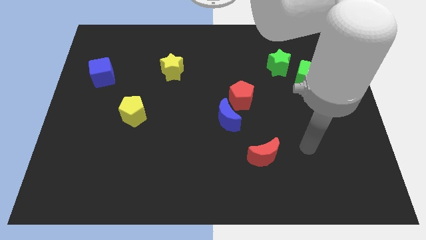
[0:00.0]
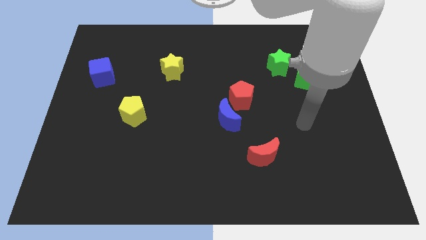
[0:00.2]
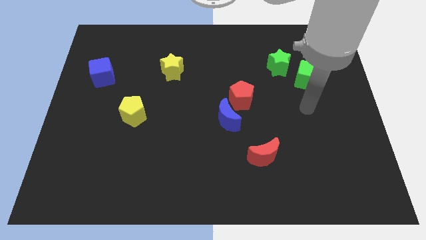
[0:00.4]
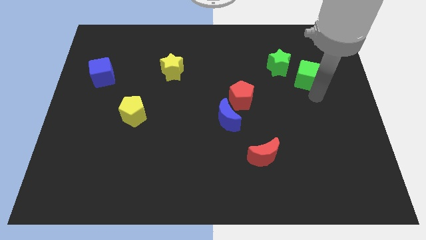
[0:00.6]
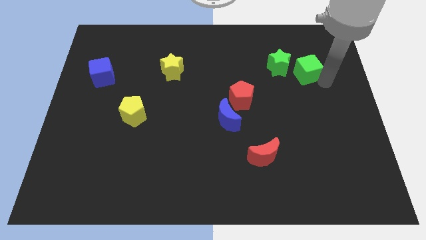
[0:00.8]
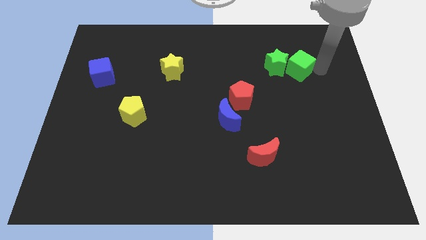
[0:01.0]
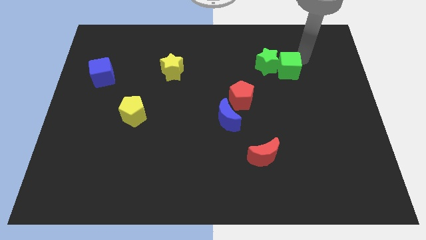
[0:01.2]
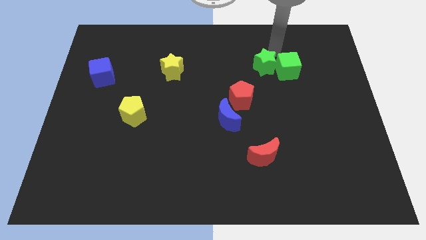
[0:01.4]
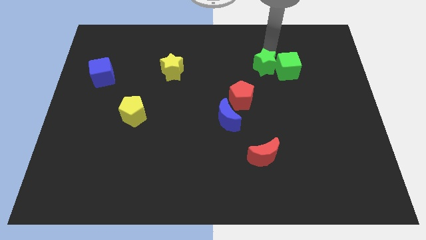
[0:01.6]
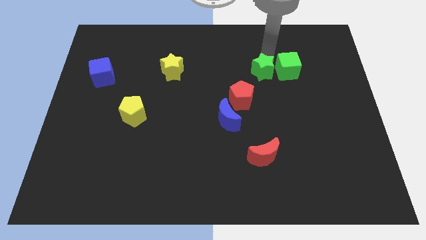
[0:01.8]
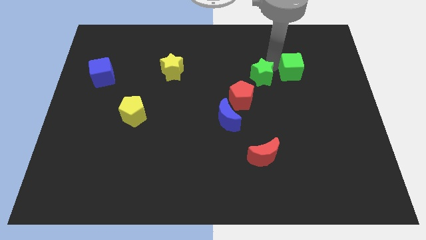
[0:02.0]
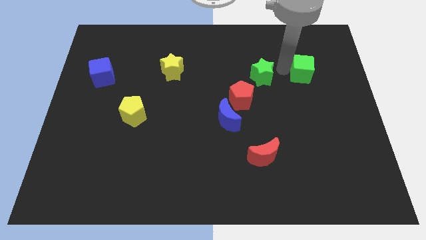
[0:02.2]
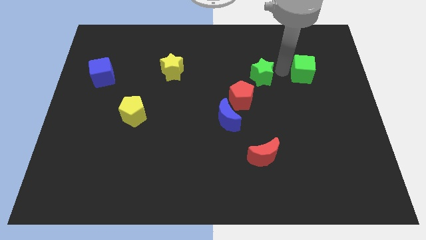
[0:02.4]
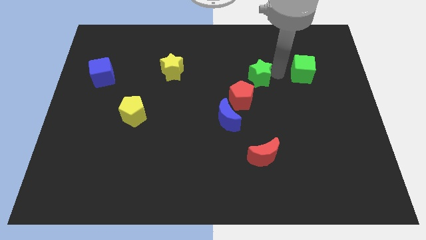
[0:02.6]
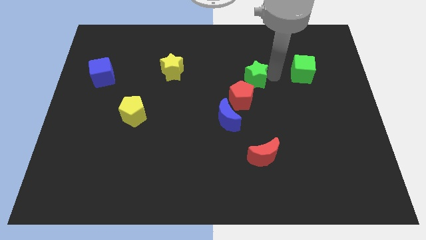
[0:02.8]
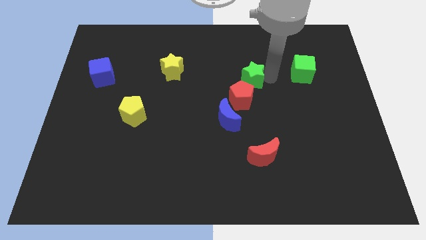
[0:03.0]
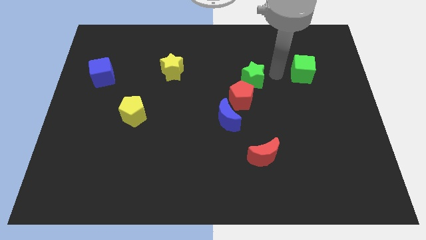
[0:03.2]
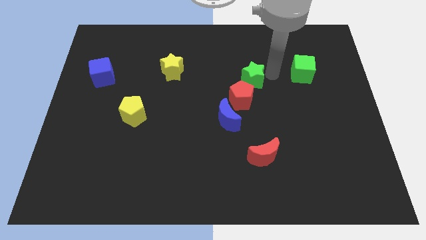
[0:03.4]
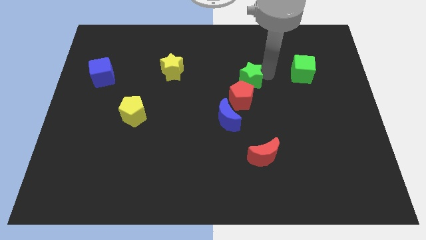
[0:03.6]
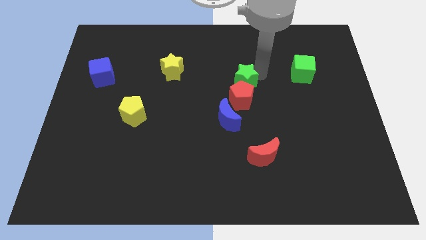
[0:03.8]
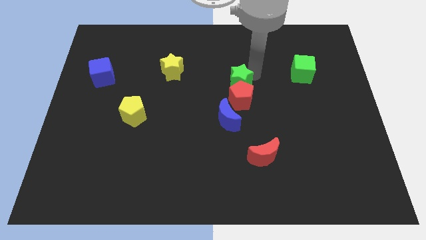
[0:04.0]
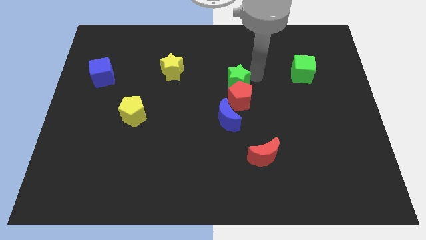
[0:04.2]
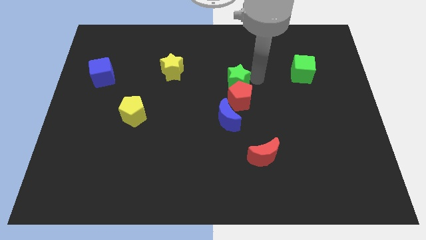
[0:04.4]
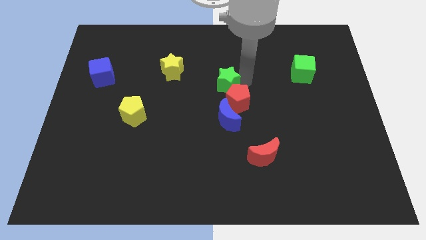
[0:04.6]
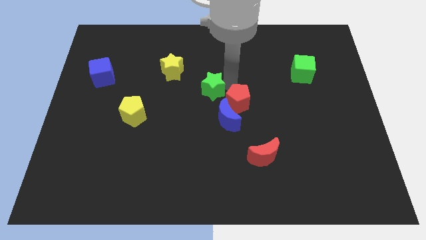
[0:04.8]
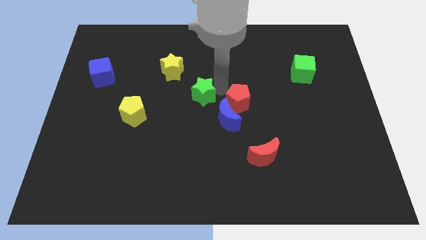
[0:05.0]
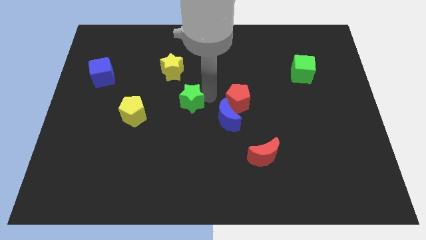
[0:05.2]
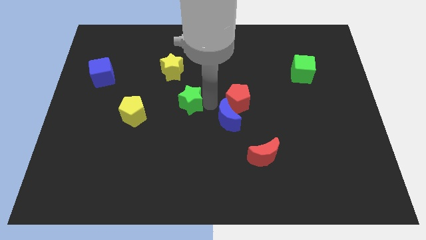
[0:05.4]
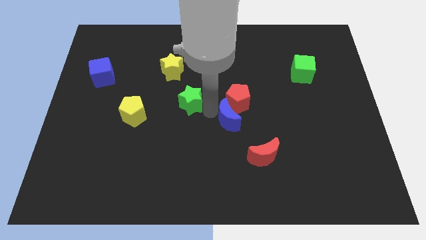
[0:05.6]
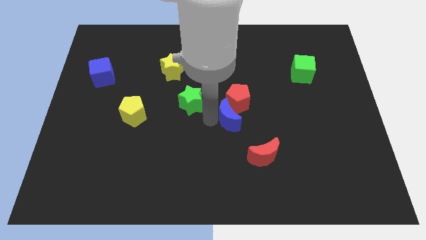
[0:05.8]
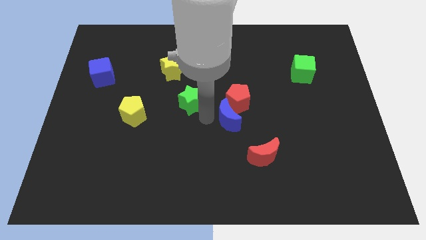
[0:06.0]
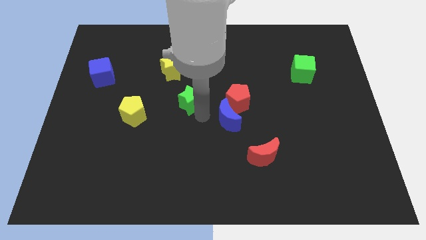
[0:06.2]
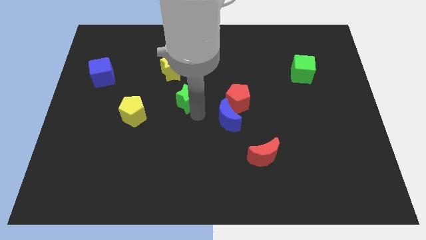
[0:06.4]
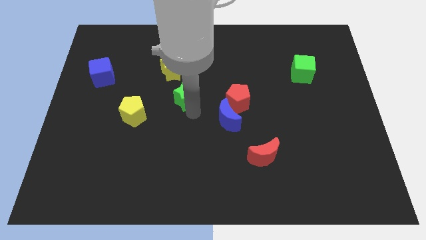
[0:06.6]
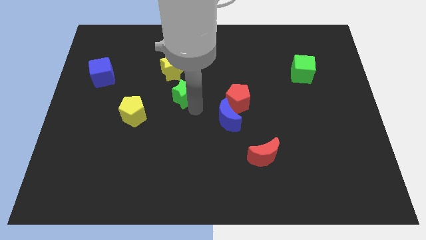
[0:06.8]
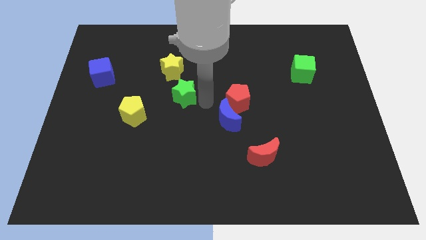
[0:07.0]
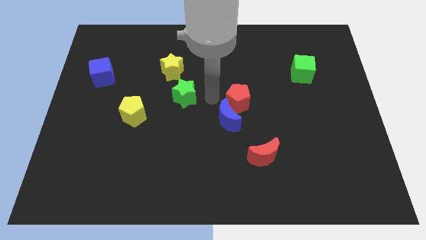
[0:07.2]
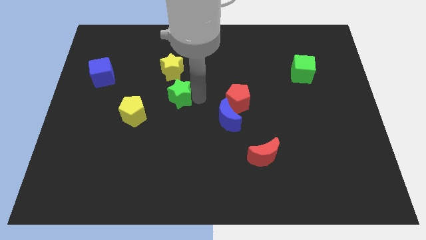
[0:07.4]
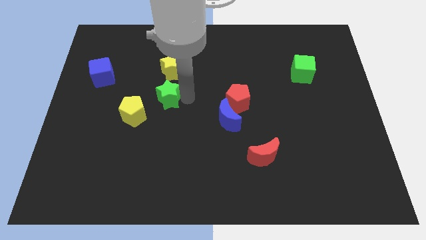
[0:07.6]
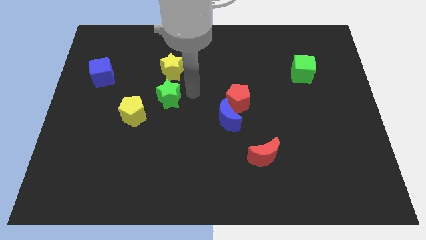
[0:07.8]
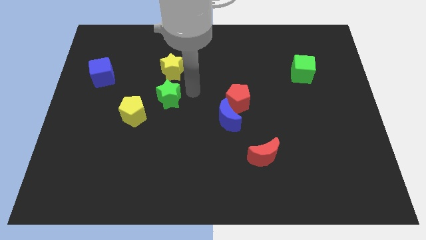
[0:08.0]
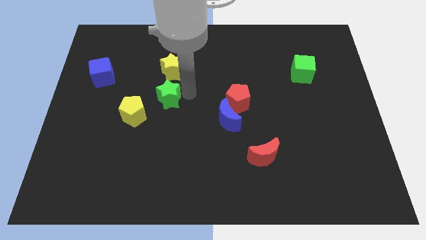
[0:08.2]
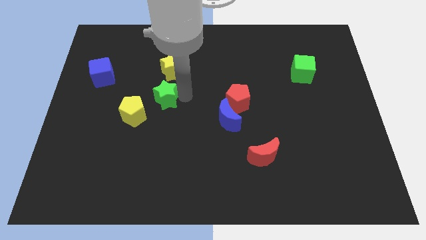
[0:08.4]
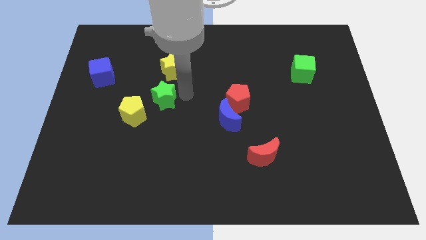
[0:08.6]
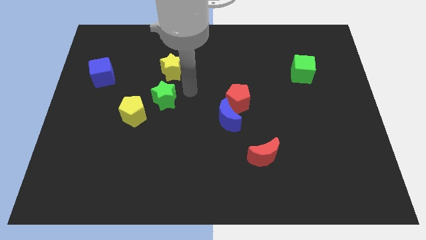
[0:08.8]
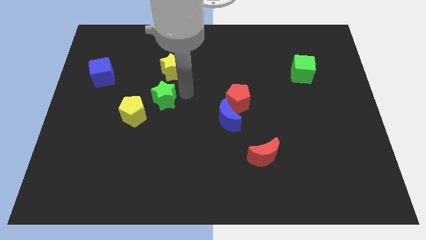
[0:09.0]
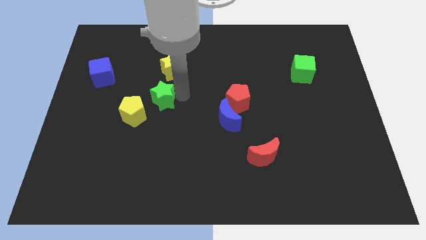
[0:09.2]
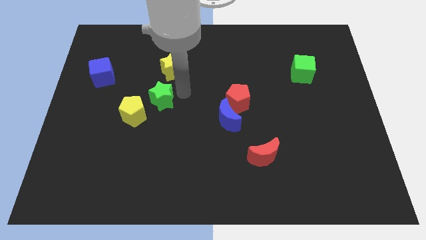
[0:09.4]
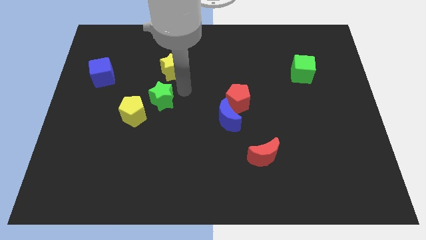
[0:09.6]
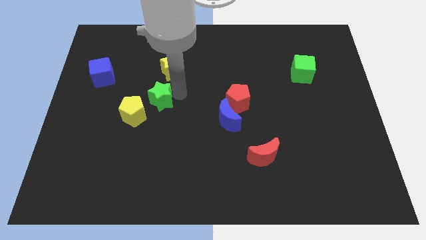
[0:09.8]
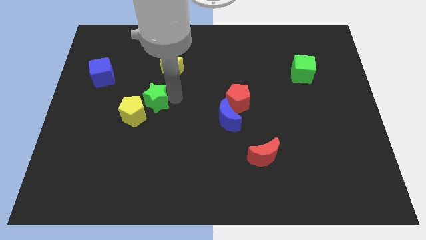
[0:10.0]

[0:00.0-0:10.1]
push the green star to the yellow pentagon

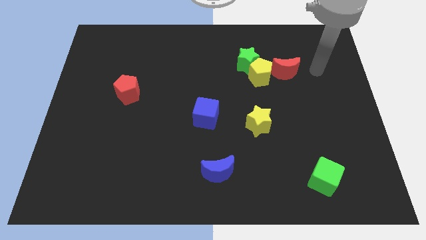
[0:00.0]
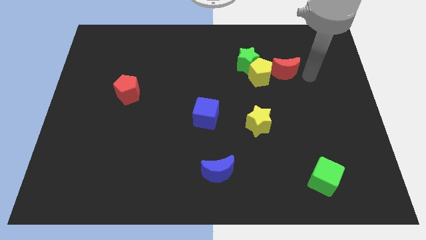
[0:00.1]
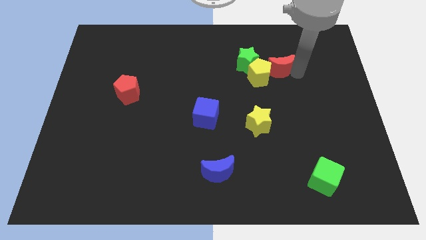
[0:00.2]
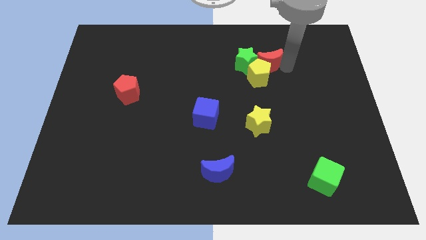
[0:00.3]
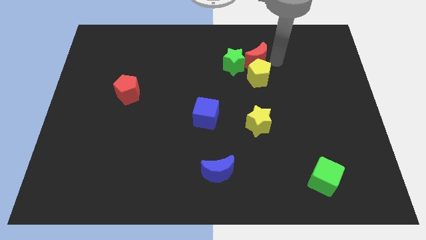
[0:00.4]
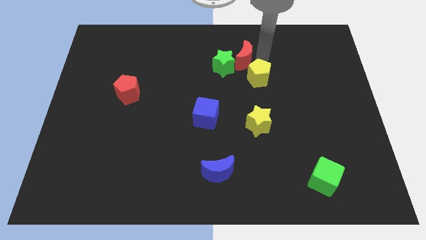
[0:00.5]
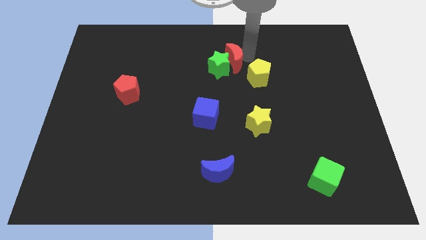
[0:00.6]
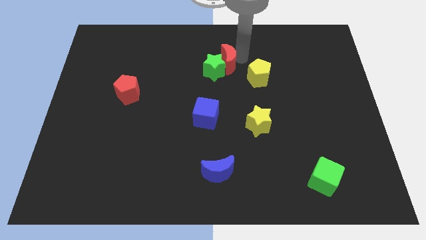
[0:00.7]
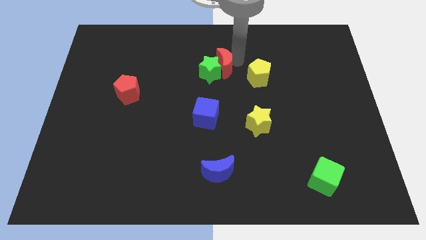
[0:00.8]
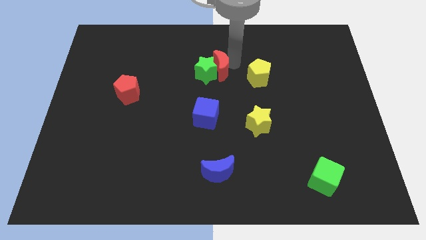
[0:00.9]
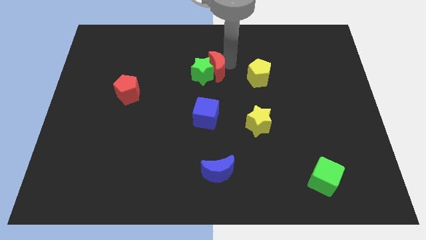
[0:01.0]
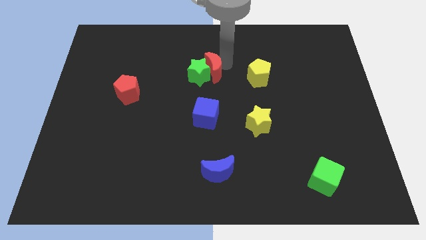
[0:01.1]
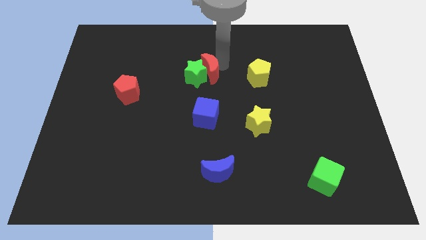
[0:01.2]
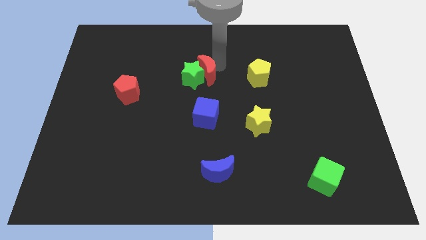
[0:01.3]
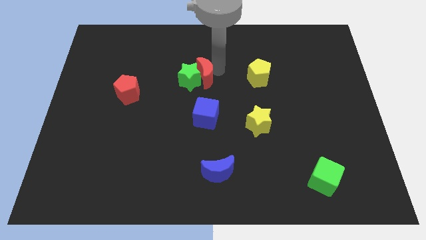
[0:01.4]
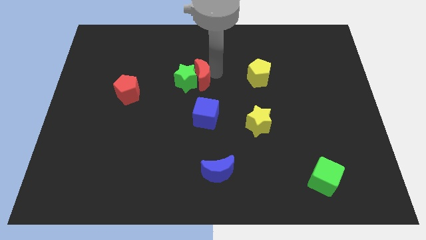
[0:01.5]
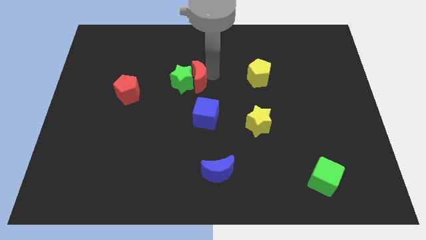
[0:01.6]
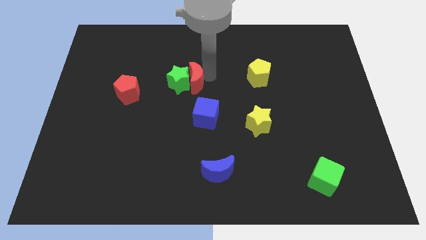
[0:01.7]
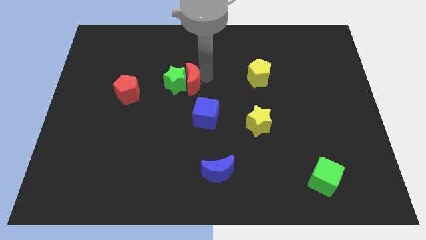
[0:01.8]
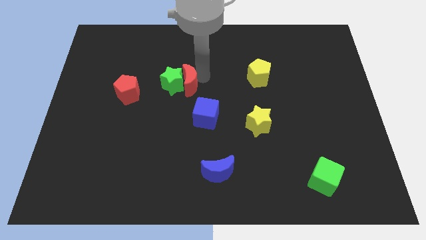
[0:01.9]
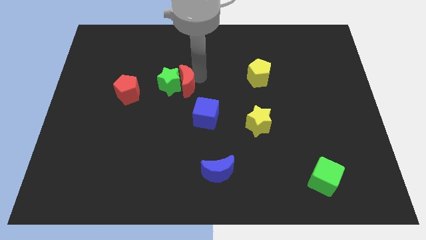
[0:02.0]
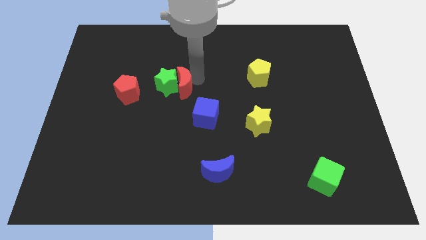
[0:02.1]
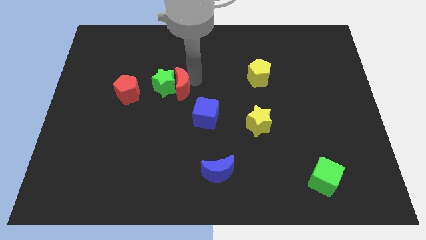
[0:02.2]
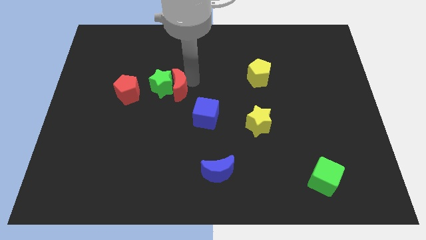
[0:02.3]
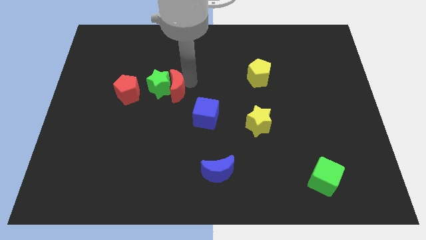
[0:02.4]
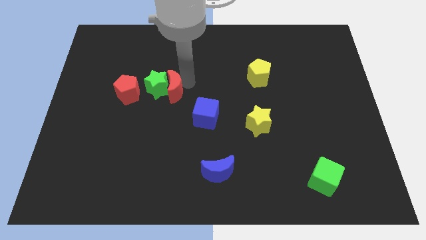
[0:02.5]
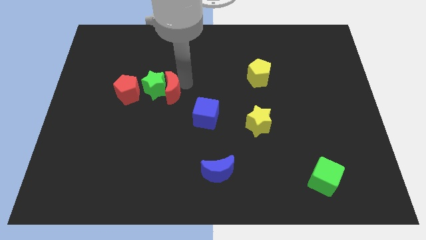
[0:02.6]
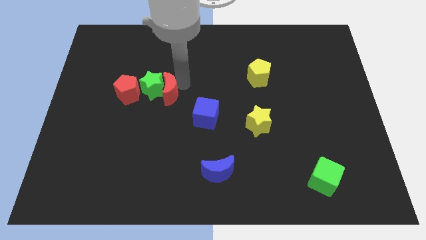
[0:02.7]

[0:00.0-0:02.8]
put the green star next to the red pentagon

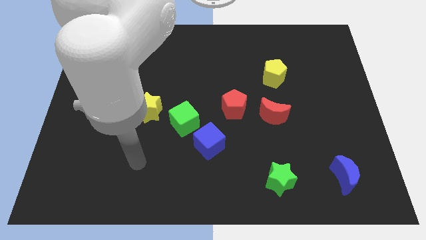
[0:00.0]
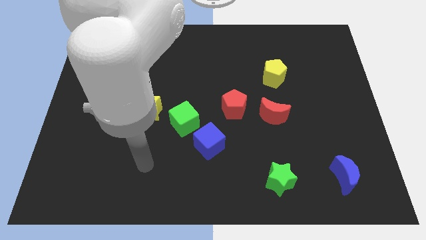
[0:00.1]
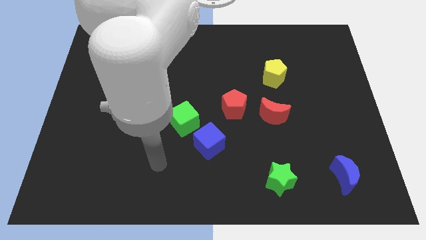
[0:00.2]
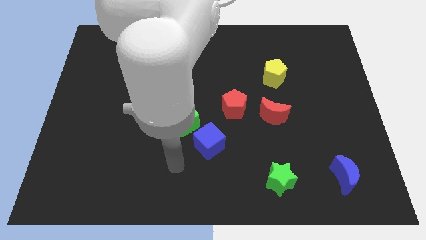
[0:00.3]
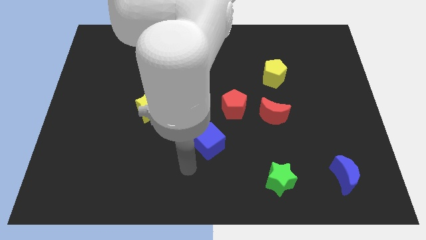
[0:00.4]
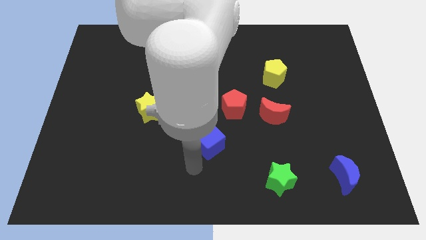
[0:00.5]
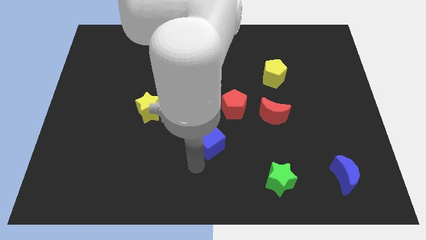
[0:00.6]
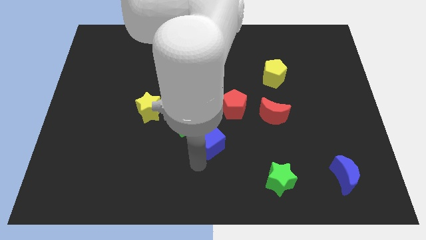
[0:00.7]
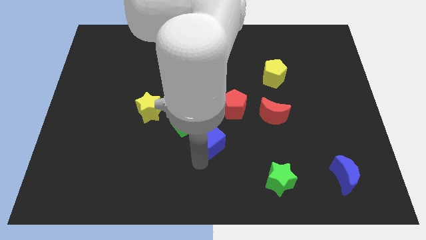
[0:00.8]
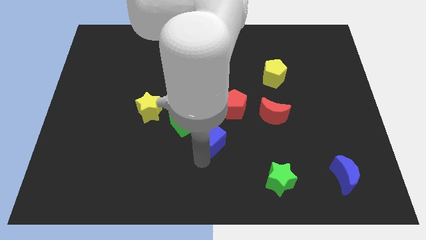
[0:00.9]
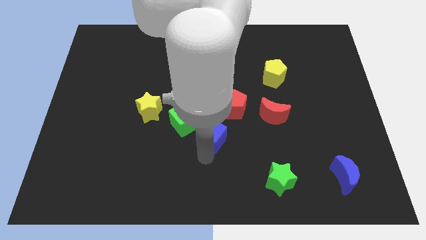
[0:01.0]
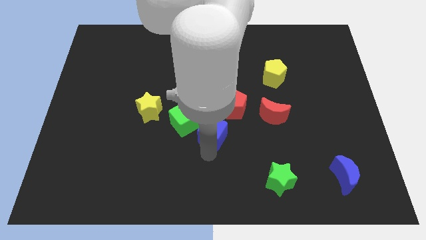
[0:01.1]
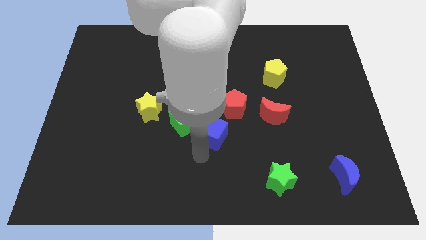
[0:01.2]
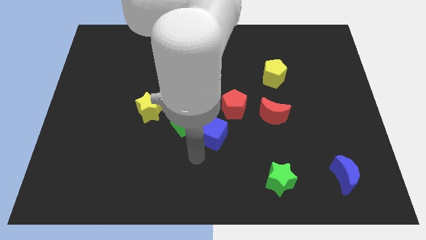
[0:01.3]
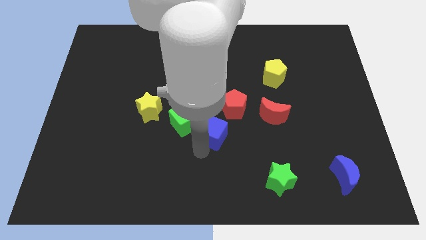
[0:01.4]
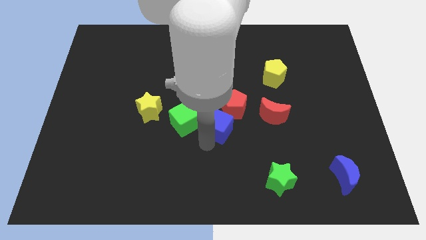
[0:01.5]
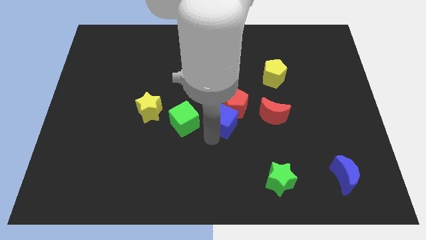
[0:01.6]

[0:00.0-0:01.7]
push the blue cube next to the red pentagon
